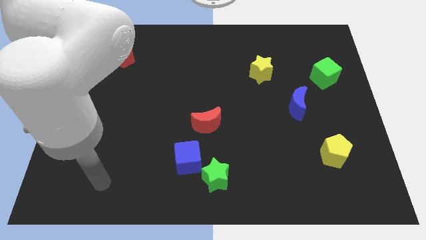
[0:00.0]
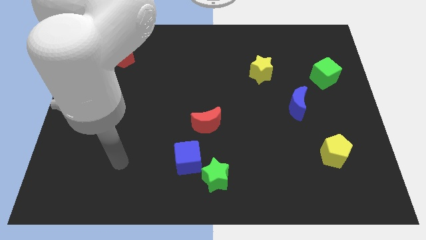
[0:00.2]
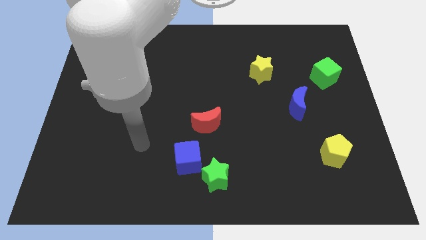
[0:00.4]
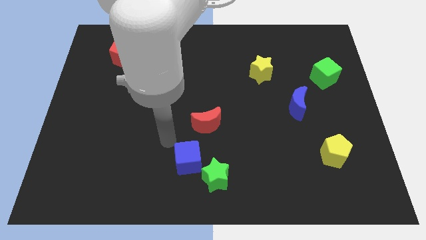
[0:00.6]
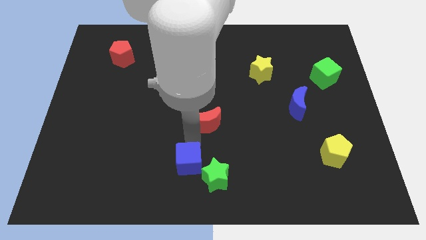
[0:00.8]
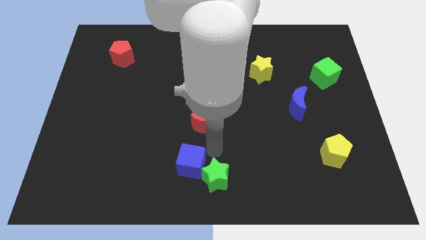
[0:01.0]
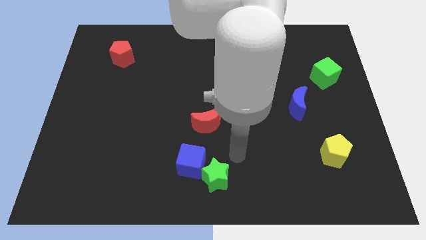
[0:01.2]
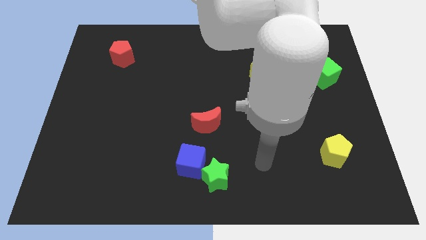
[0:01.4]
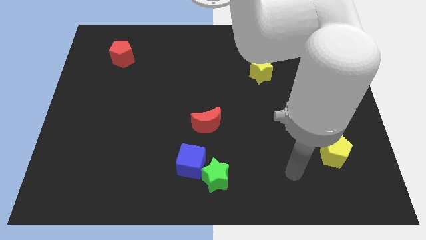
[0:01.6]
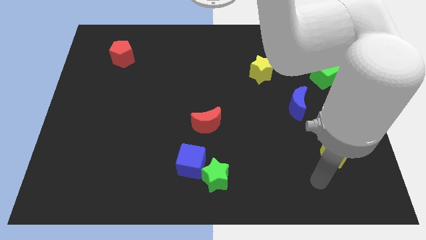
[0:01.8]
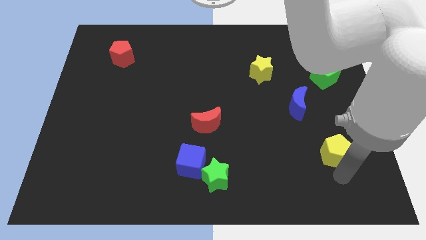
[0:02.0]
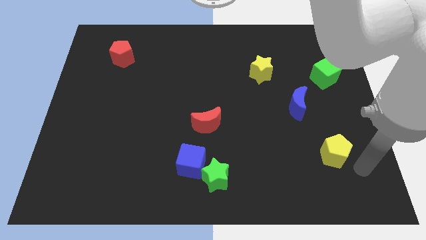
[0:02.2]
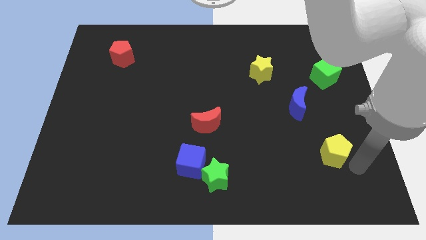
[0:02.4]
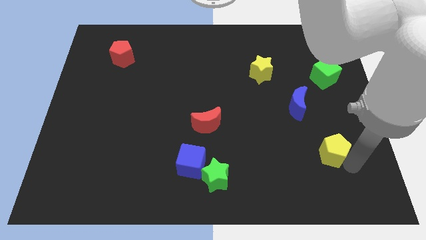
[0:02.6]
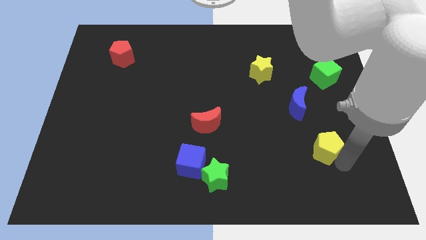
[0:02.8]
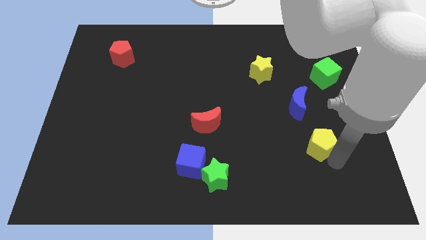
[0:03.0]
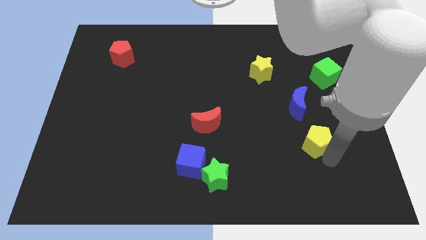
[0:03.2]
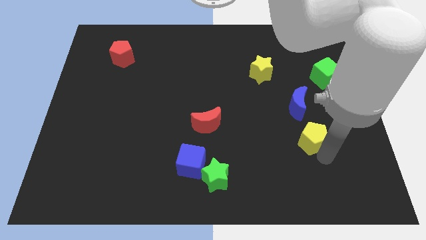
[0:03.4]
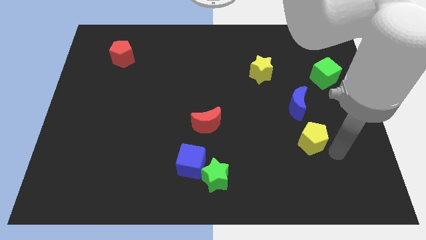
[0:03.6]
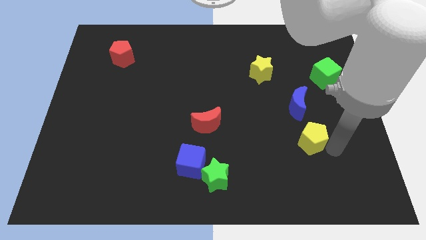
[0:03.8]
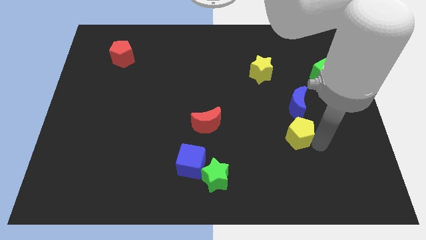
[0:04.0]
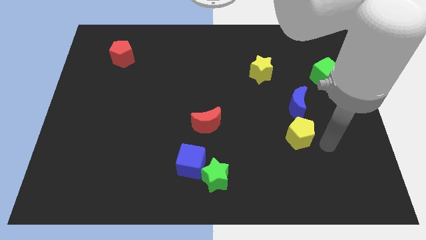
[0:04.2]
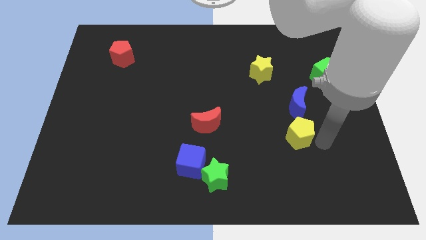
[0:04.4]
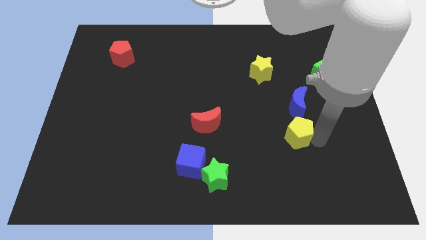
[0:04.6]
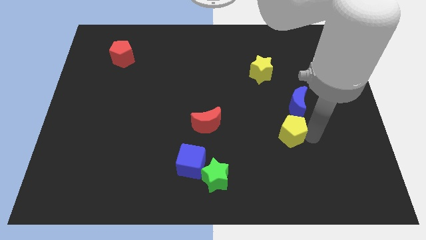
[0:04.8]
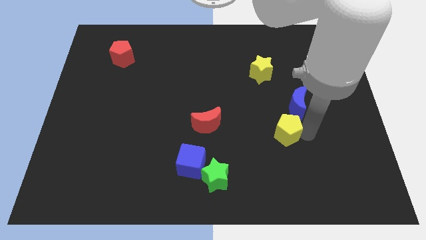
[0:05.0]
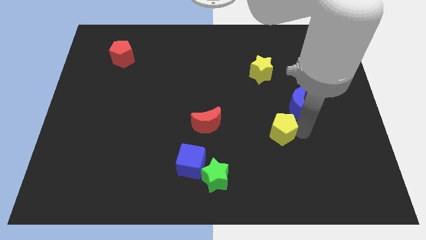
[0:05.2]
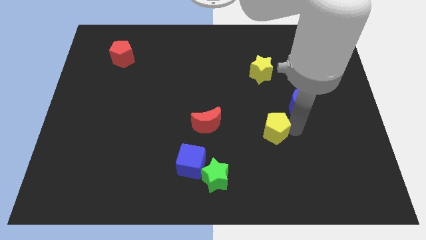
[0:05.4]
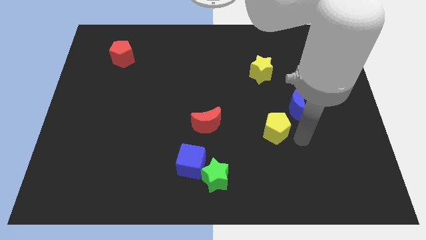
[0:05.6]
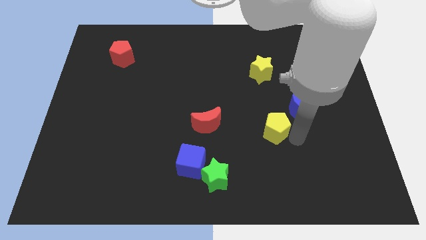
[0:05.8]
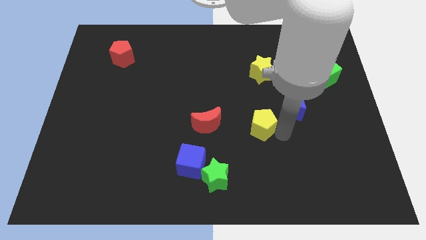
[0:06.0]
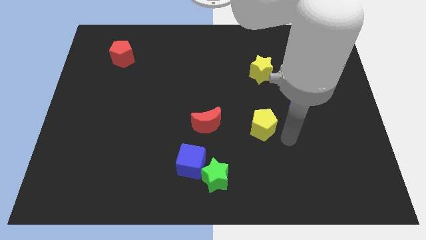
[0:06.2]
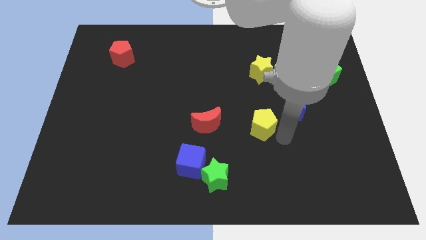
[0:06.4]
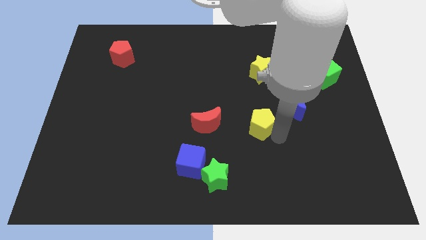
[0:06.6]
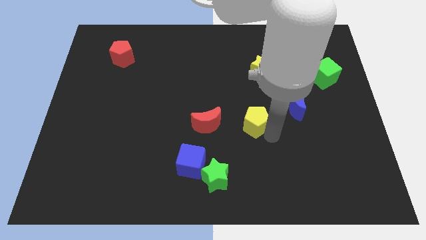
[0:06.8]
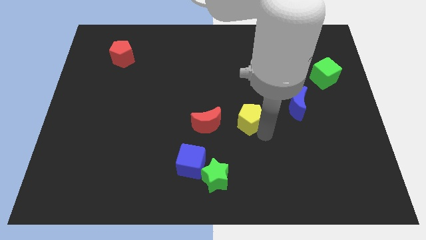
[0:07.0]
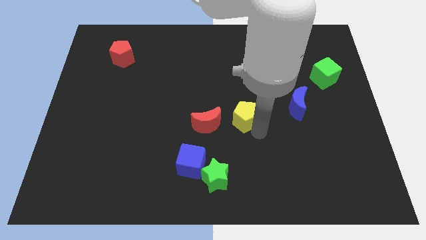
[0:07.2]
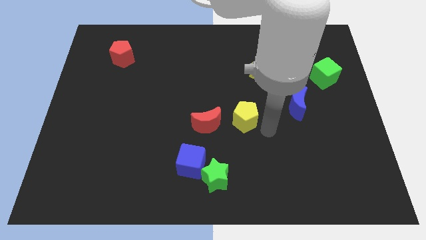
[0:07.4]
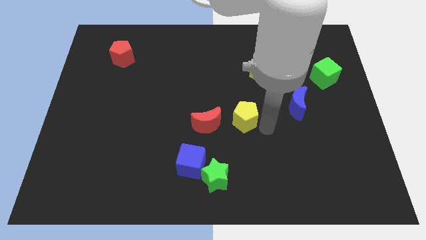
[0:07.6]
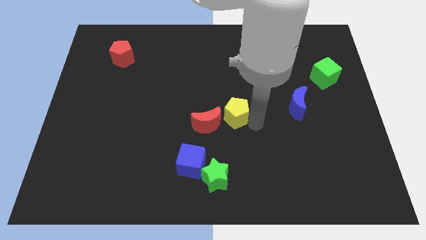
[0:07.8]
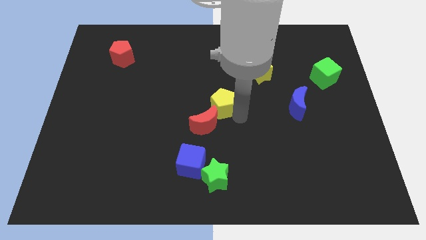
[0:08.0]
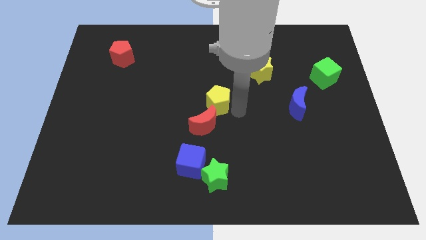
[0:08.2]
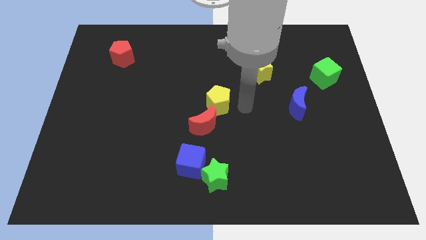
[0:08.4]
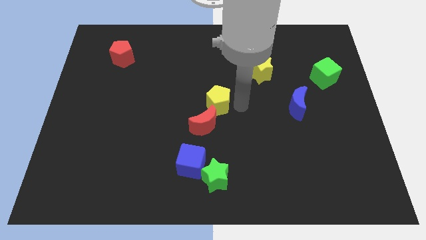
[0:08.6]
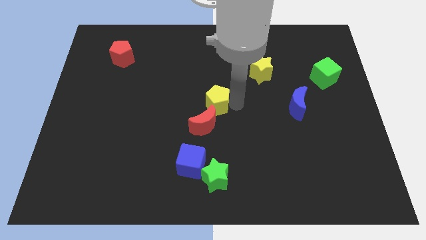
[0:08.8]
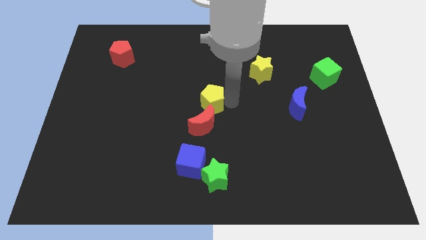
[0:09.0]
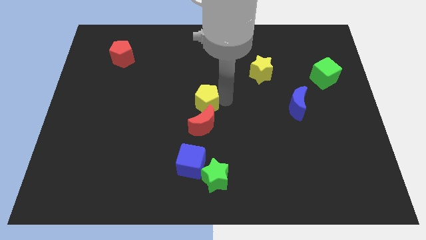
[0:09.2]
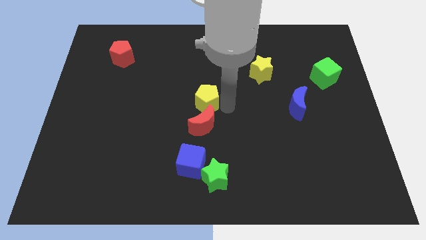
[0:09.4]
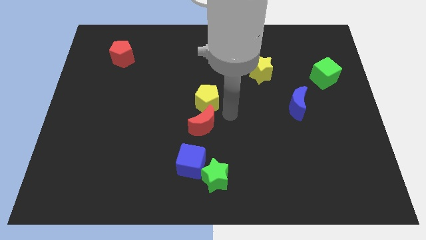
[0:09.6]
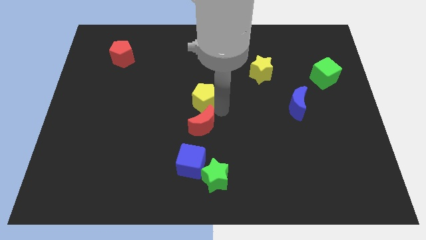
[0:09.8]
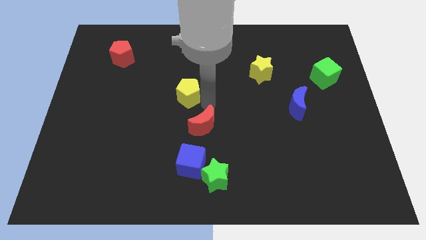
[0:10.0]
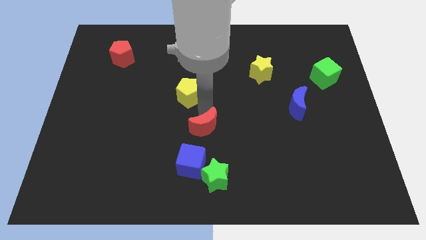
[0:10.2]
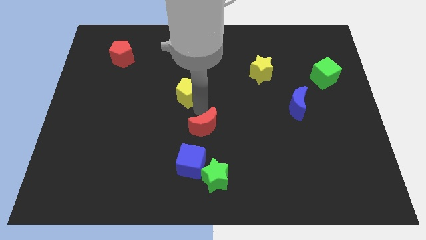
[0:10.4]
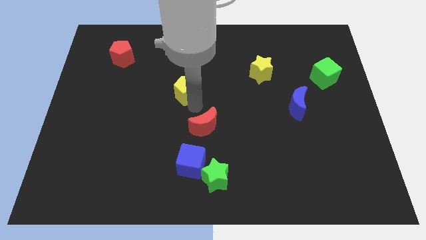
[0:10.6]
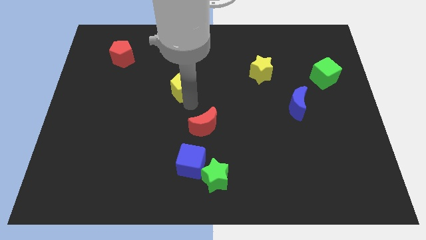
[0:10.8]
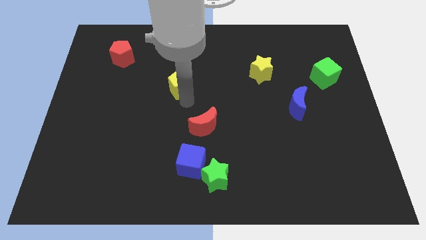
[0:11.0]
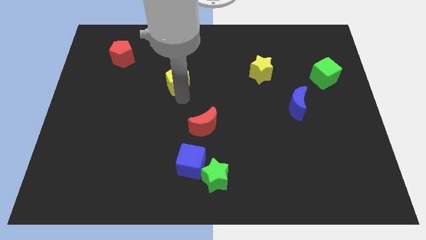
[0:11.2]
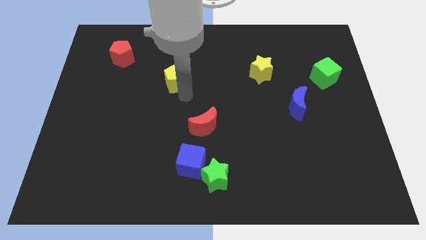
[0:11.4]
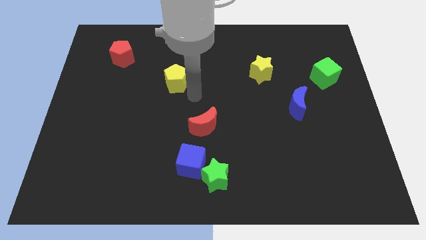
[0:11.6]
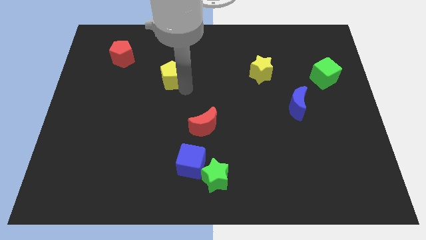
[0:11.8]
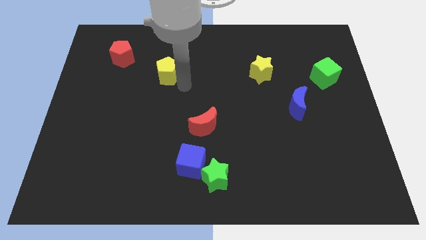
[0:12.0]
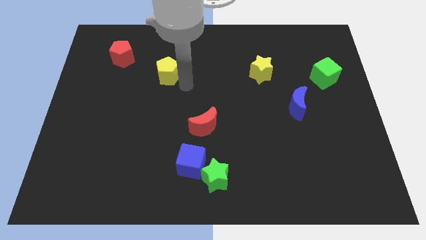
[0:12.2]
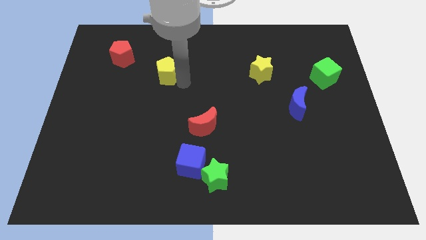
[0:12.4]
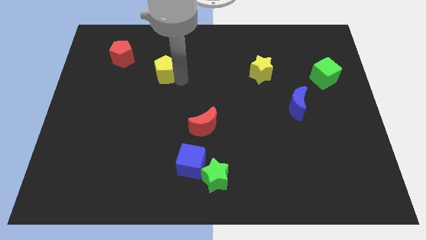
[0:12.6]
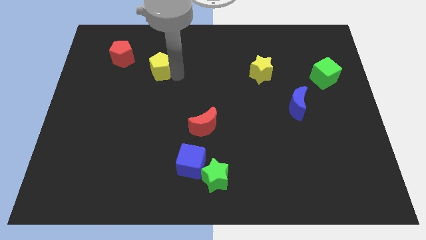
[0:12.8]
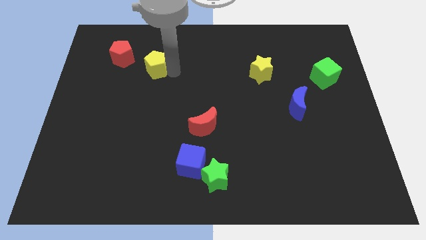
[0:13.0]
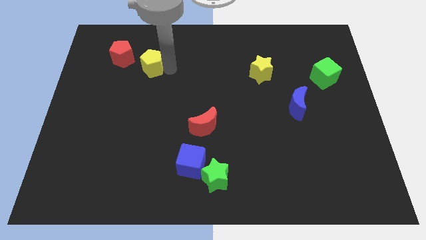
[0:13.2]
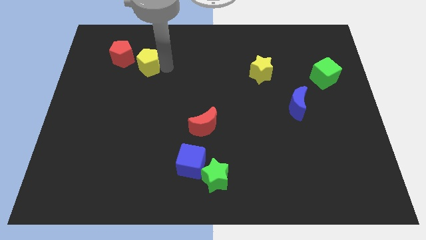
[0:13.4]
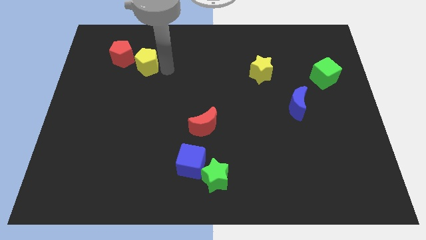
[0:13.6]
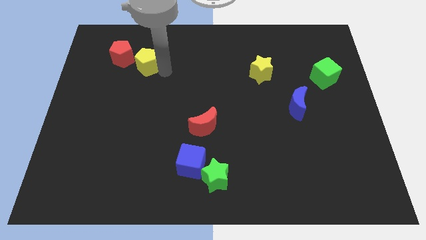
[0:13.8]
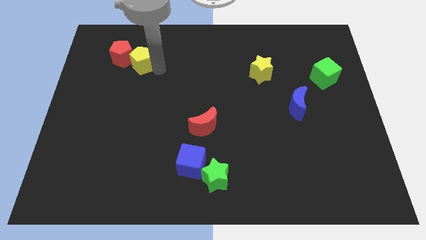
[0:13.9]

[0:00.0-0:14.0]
put the yellow pentagon to the red pentagon
